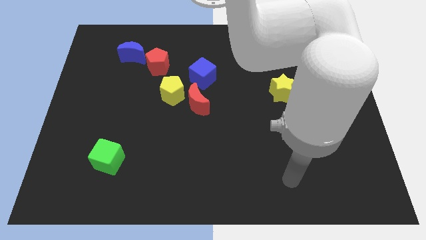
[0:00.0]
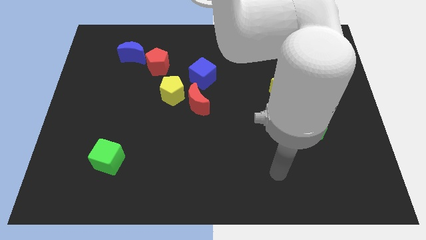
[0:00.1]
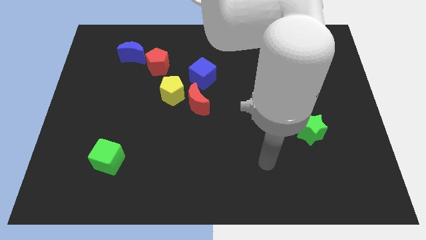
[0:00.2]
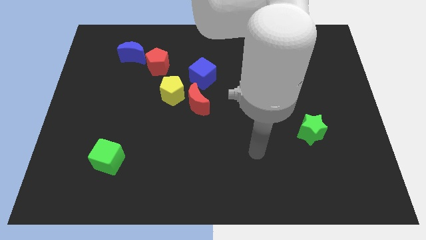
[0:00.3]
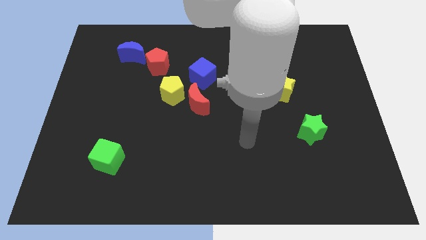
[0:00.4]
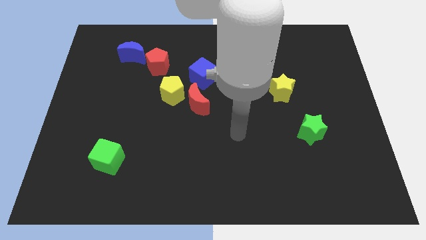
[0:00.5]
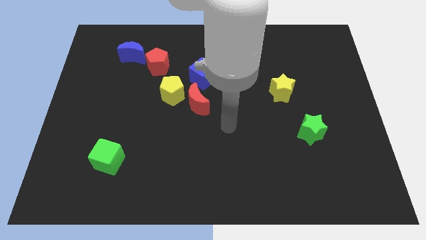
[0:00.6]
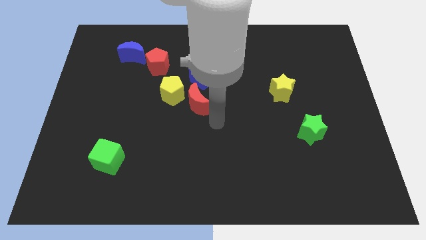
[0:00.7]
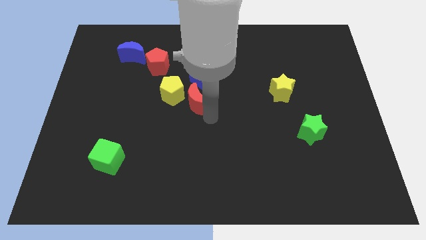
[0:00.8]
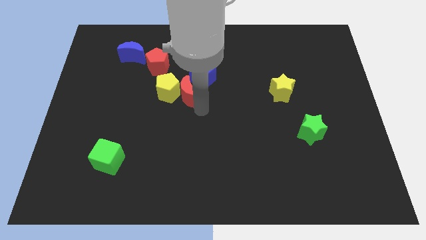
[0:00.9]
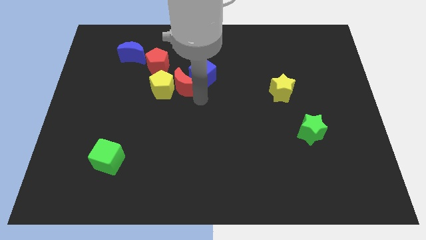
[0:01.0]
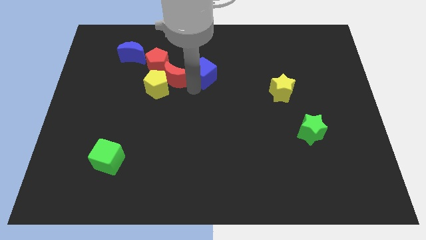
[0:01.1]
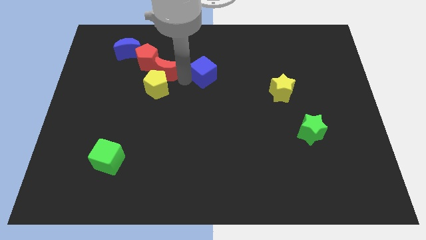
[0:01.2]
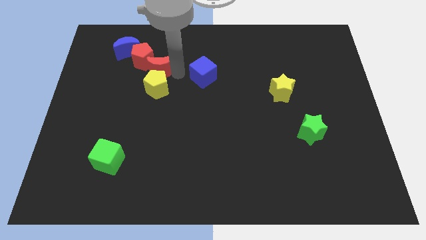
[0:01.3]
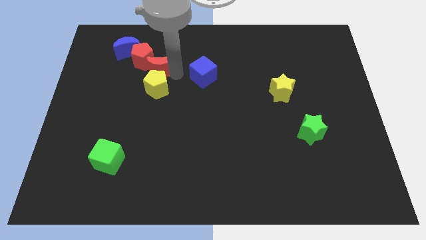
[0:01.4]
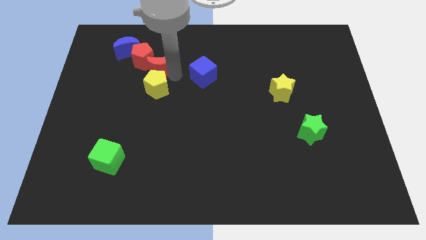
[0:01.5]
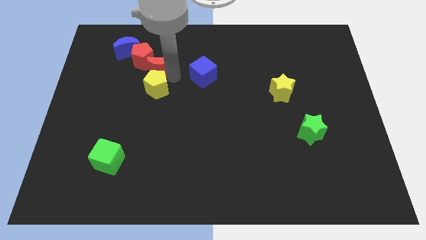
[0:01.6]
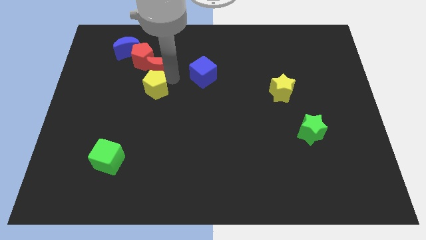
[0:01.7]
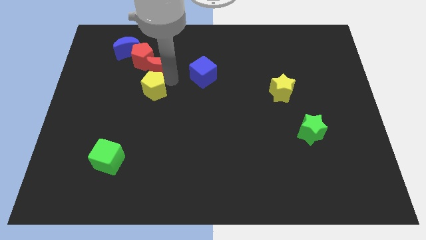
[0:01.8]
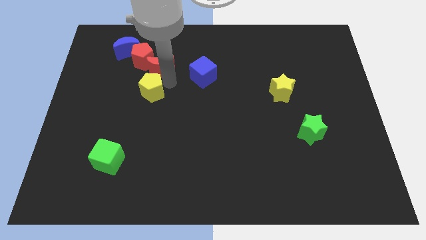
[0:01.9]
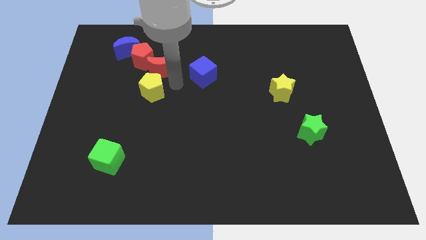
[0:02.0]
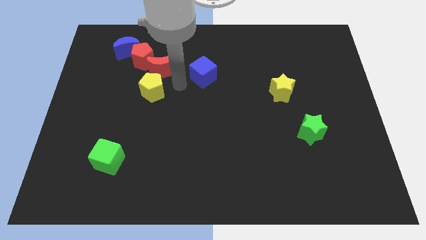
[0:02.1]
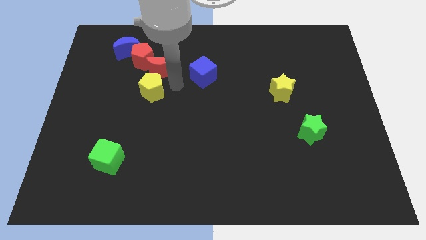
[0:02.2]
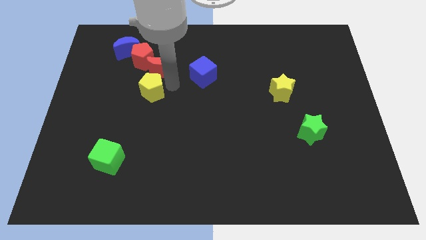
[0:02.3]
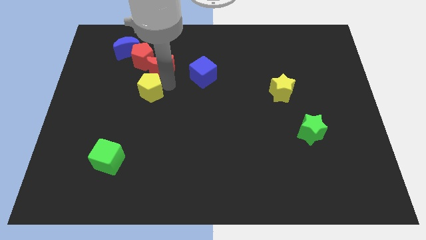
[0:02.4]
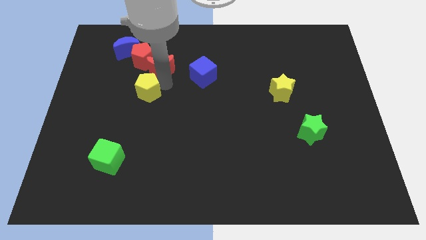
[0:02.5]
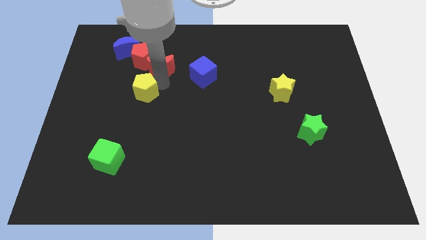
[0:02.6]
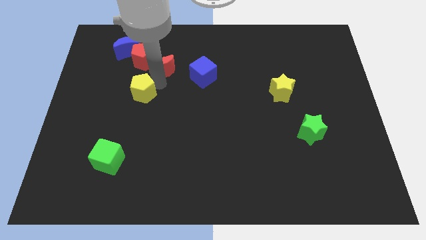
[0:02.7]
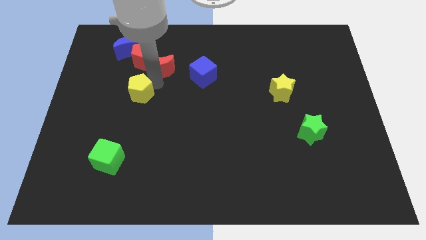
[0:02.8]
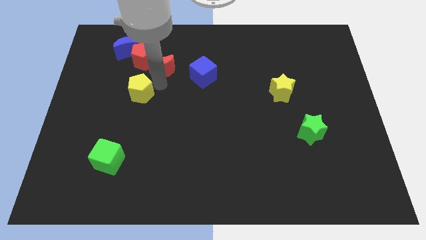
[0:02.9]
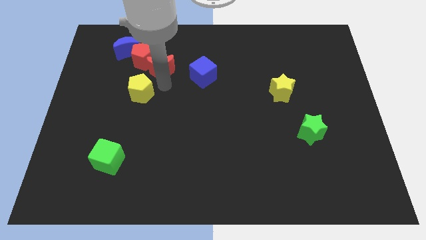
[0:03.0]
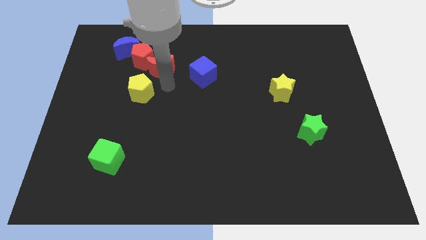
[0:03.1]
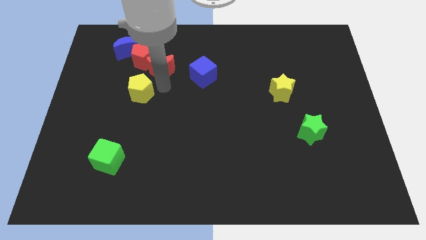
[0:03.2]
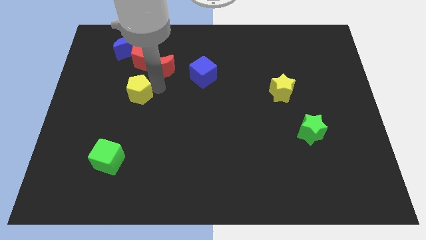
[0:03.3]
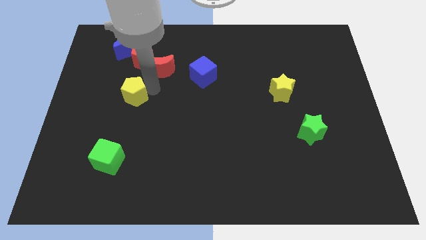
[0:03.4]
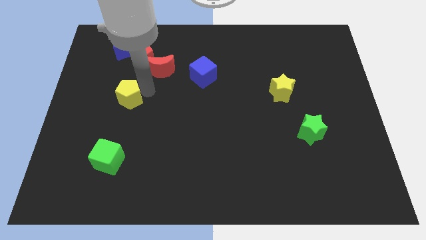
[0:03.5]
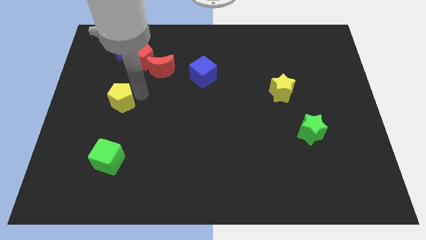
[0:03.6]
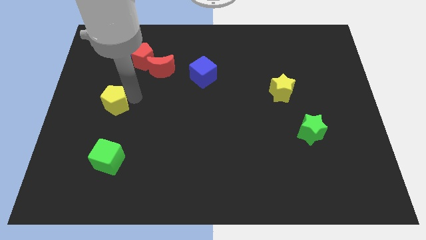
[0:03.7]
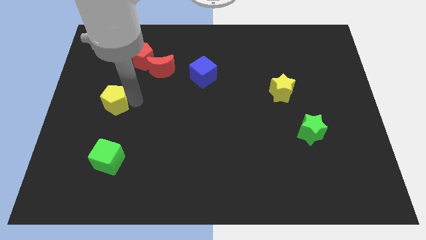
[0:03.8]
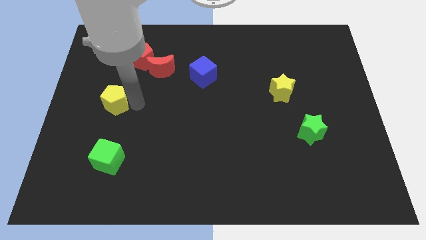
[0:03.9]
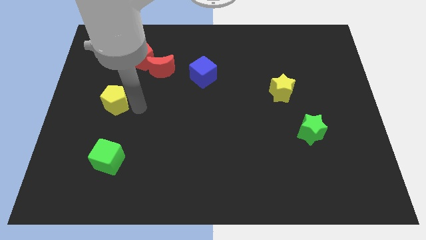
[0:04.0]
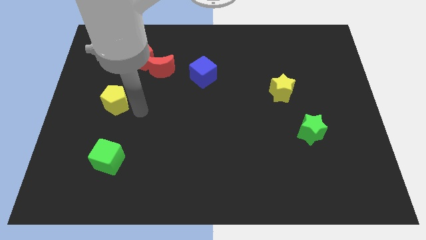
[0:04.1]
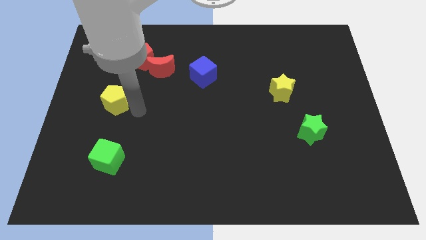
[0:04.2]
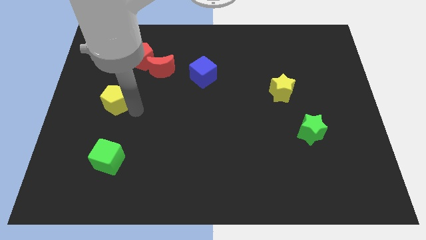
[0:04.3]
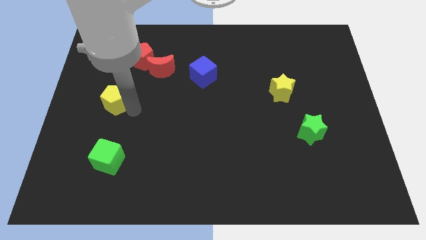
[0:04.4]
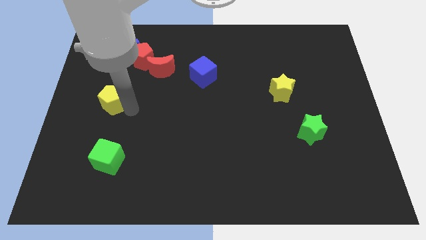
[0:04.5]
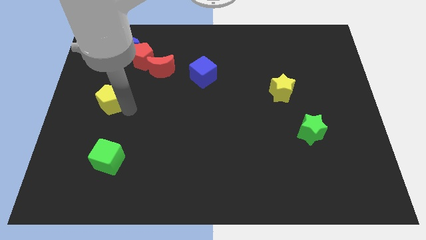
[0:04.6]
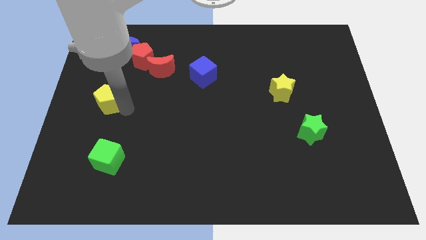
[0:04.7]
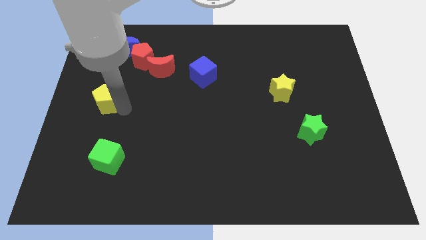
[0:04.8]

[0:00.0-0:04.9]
put the yellow pentagon to the center left

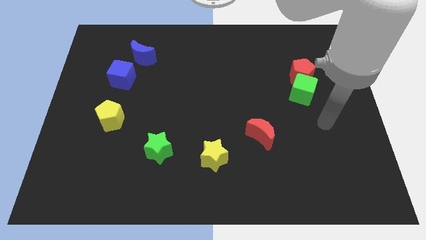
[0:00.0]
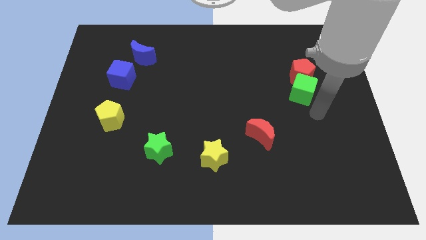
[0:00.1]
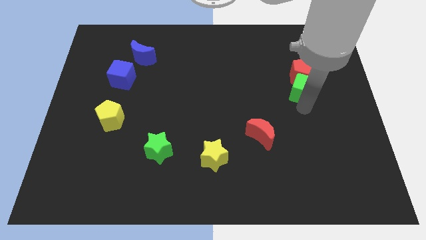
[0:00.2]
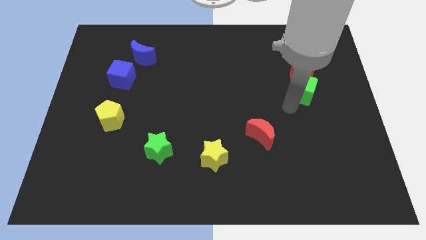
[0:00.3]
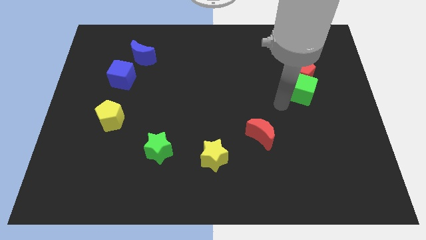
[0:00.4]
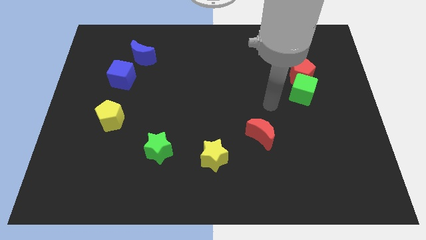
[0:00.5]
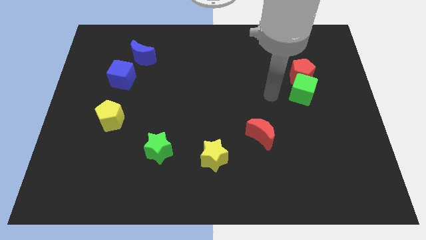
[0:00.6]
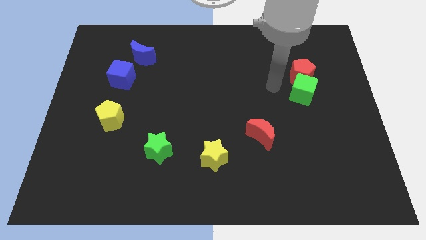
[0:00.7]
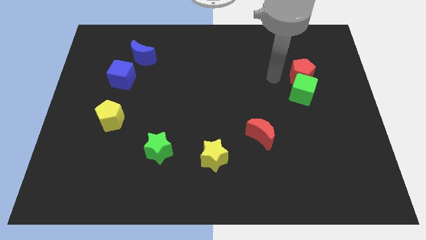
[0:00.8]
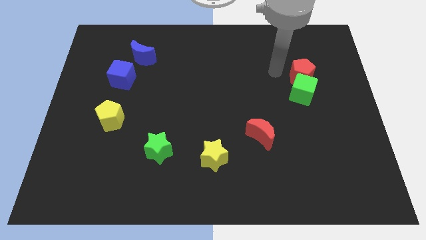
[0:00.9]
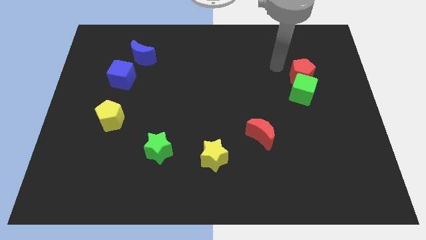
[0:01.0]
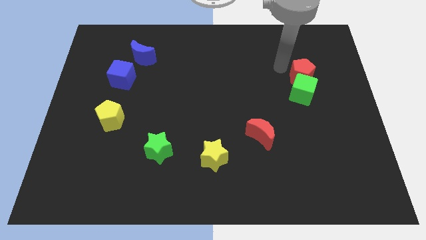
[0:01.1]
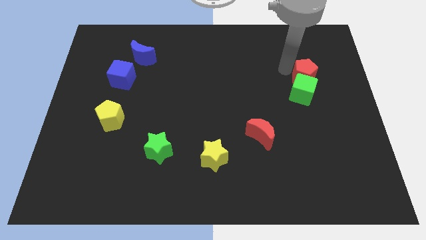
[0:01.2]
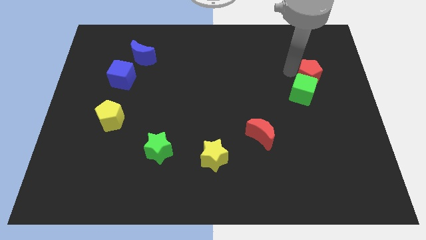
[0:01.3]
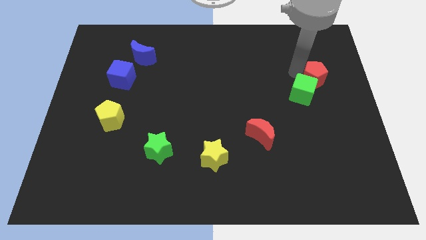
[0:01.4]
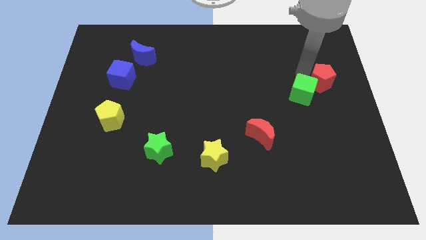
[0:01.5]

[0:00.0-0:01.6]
move the red pentagon to the right side of the board
